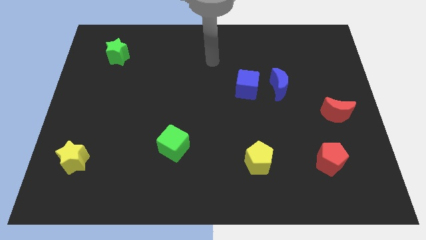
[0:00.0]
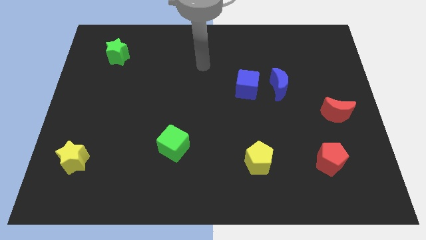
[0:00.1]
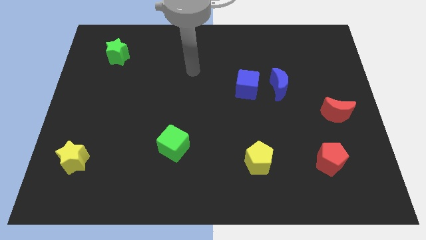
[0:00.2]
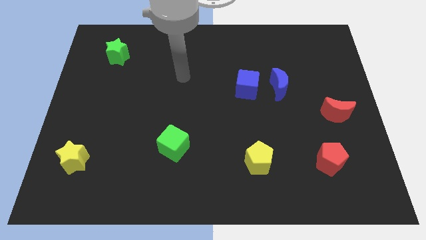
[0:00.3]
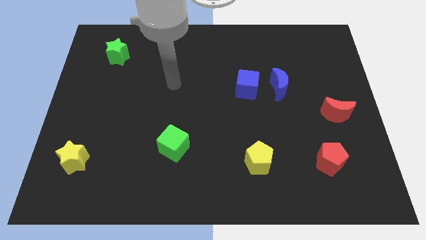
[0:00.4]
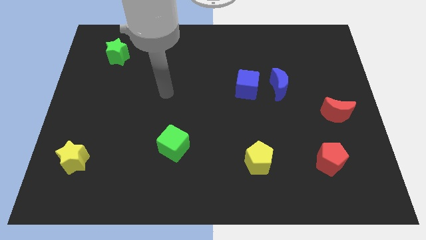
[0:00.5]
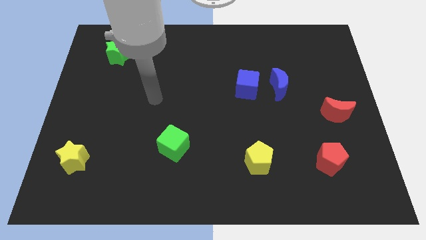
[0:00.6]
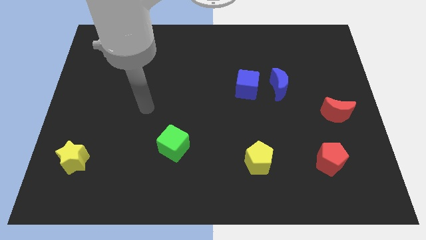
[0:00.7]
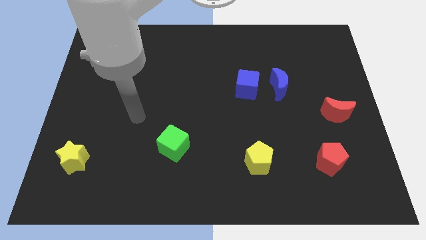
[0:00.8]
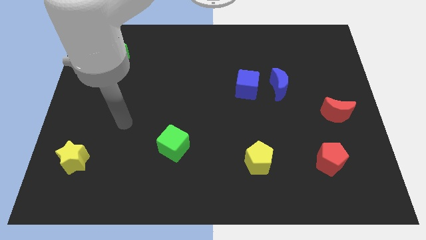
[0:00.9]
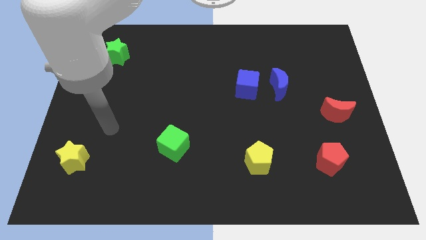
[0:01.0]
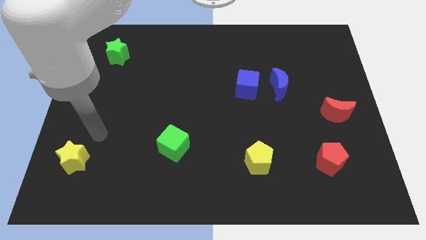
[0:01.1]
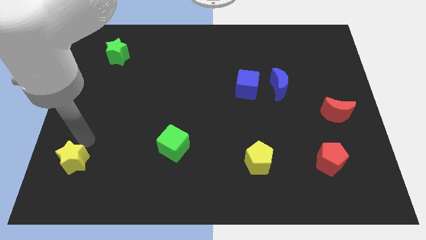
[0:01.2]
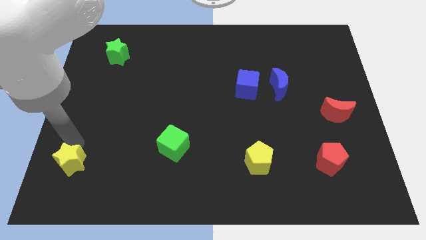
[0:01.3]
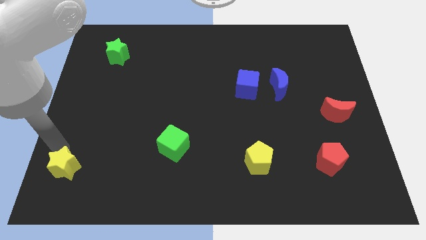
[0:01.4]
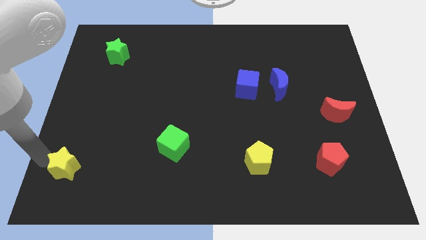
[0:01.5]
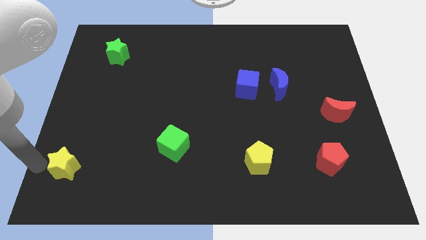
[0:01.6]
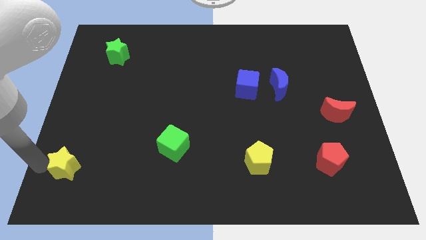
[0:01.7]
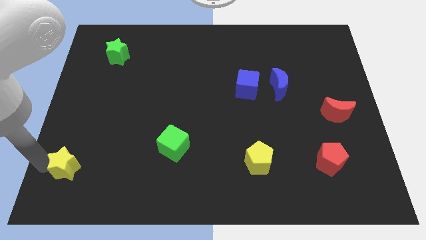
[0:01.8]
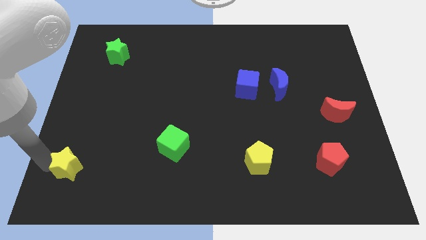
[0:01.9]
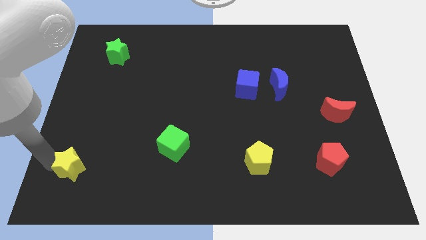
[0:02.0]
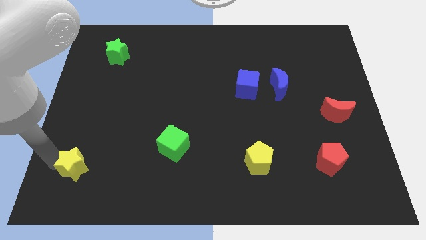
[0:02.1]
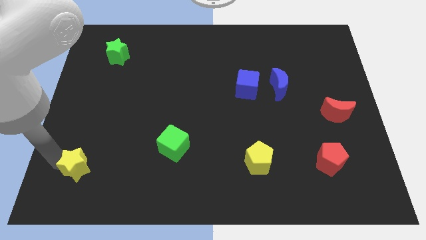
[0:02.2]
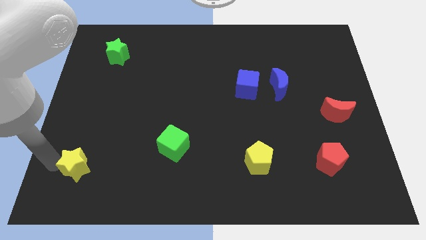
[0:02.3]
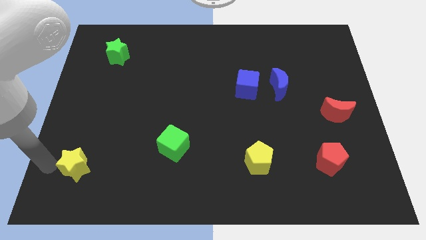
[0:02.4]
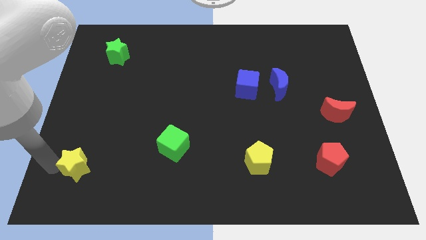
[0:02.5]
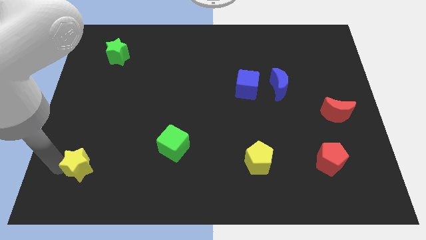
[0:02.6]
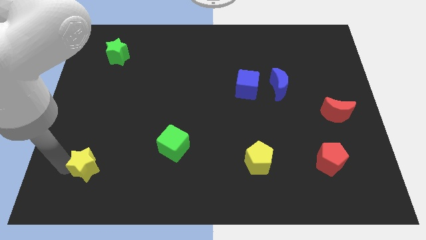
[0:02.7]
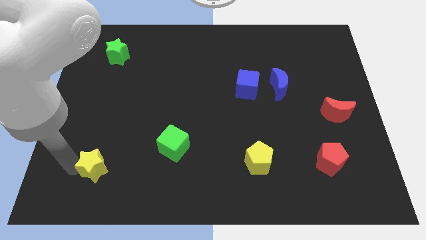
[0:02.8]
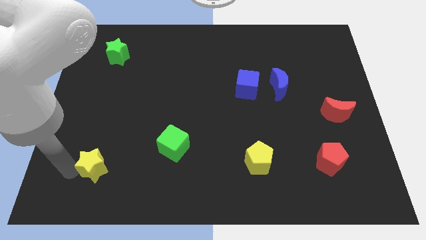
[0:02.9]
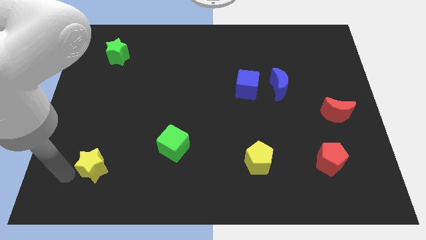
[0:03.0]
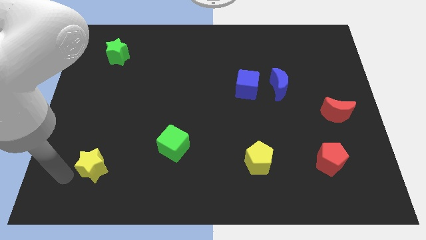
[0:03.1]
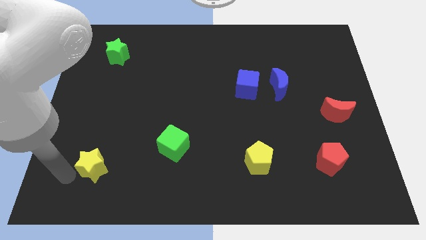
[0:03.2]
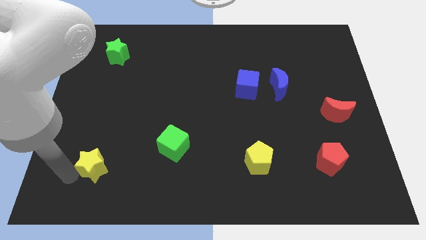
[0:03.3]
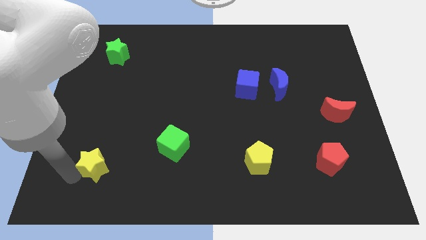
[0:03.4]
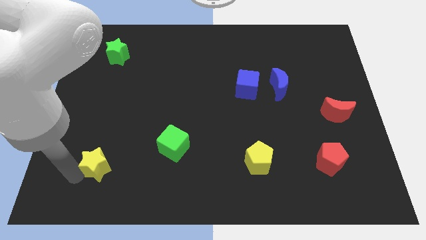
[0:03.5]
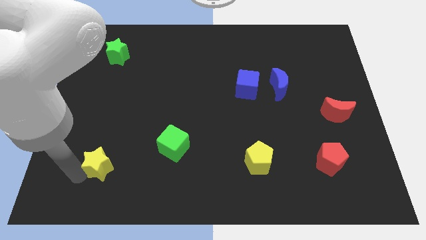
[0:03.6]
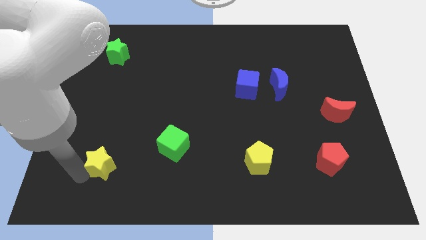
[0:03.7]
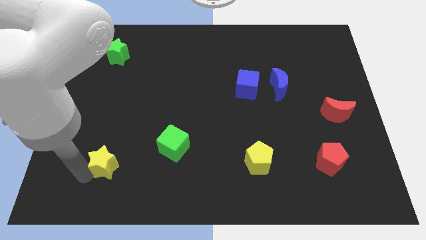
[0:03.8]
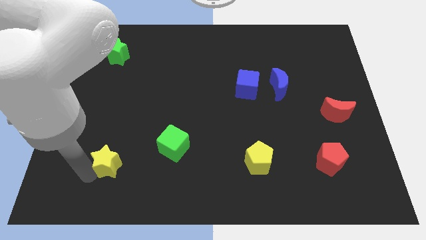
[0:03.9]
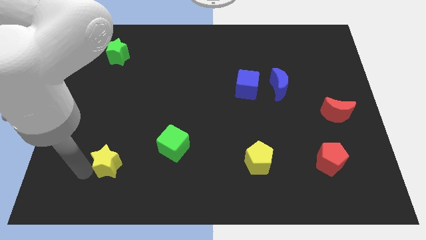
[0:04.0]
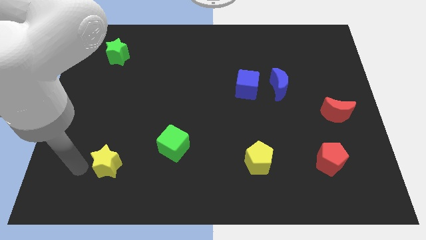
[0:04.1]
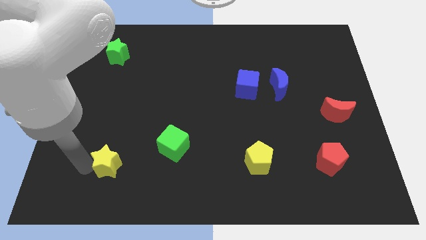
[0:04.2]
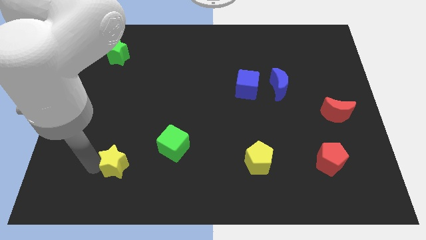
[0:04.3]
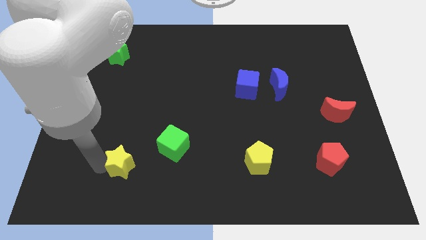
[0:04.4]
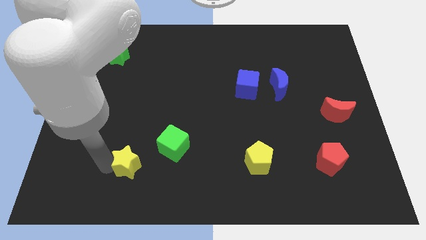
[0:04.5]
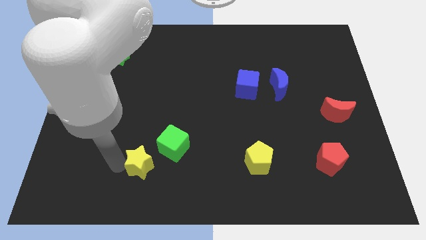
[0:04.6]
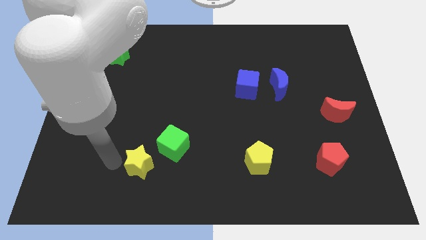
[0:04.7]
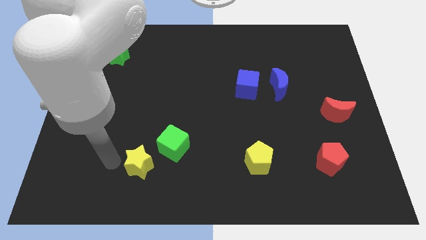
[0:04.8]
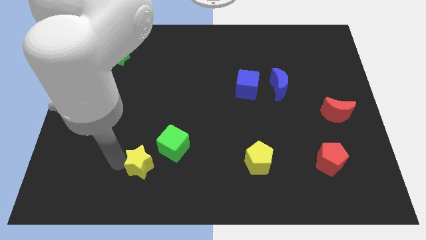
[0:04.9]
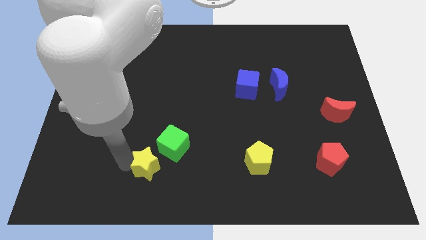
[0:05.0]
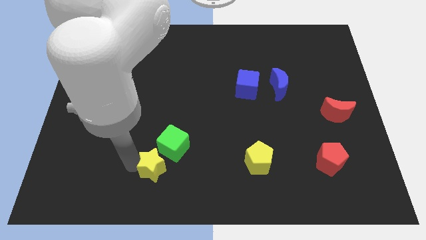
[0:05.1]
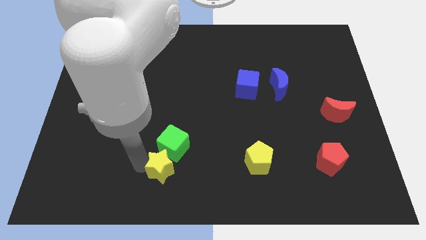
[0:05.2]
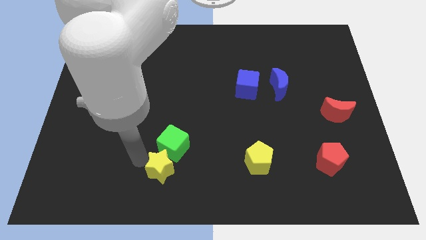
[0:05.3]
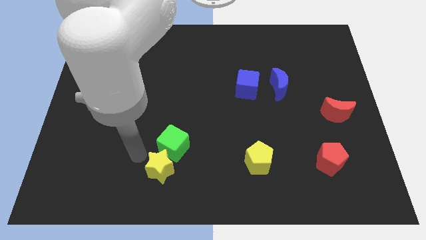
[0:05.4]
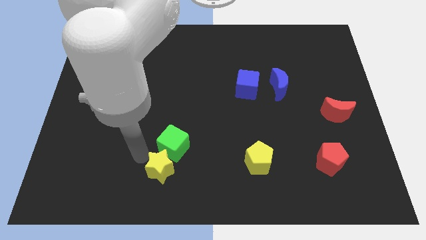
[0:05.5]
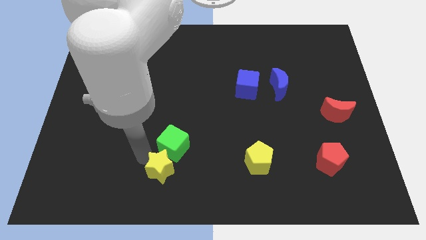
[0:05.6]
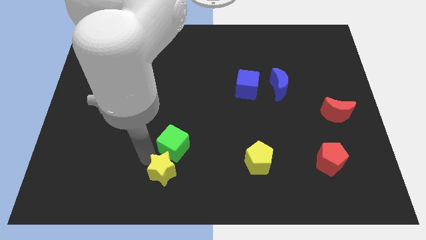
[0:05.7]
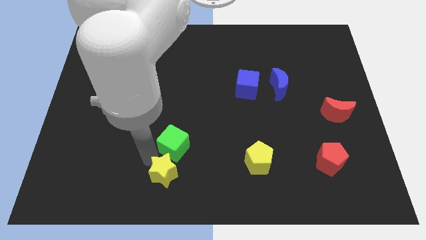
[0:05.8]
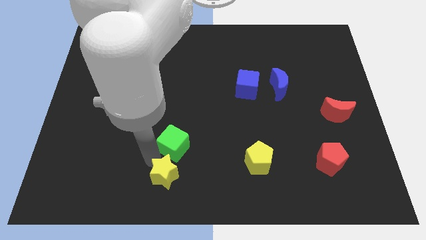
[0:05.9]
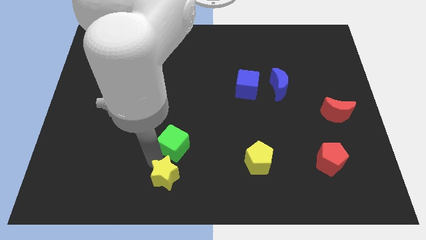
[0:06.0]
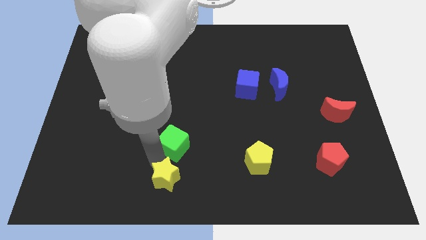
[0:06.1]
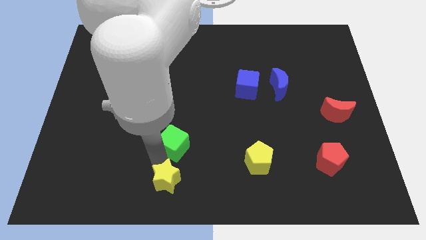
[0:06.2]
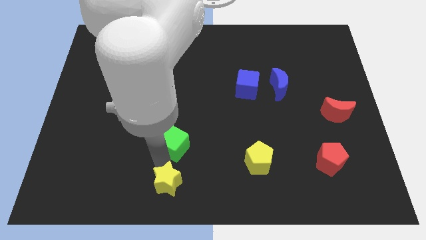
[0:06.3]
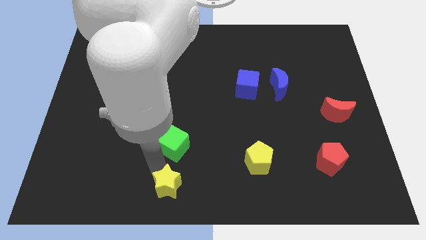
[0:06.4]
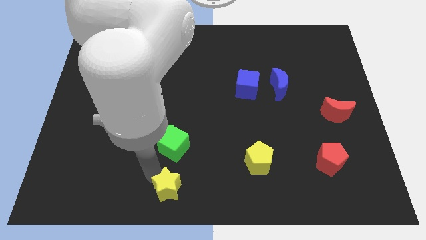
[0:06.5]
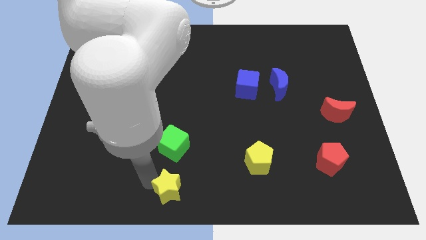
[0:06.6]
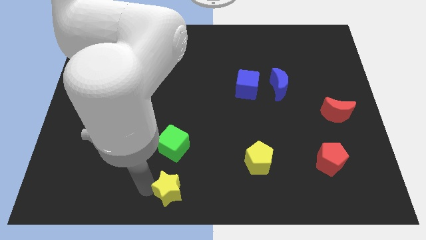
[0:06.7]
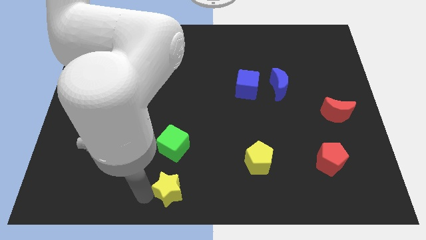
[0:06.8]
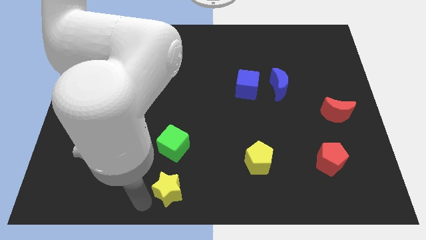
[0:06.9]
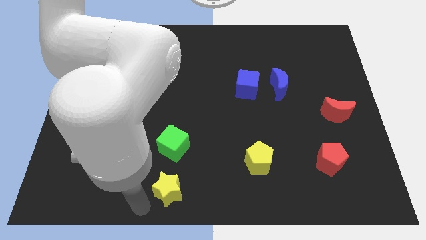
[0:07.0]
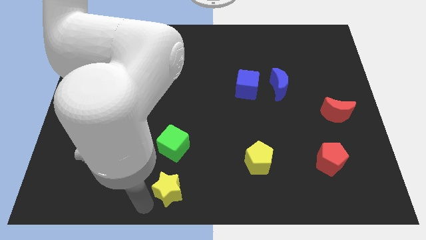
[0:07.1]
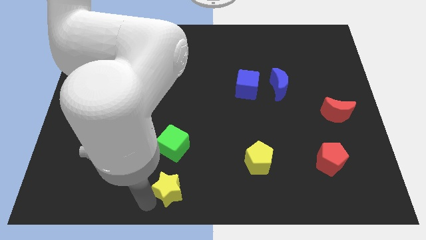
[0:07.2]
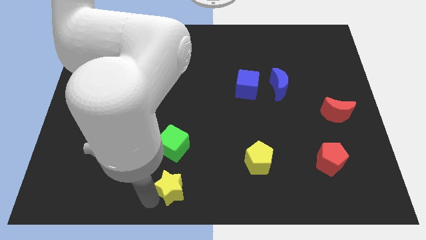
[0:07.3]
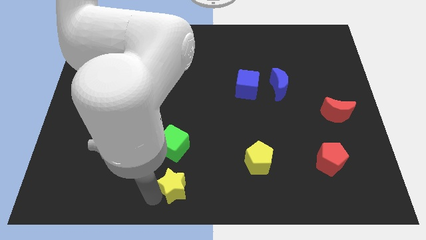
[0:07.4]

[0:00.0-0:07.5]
slide the yellow star right

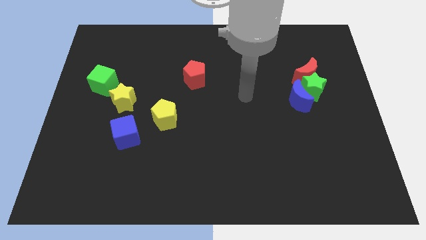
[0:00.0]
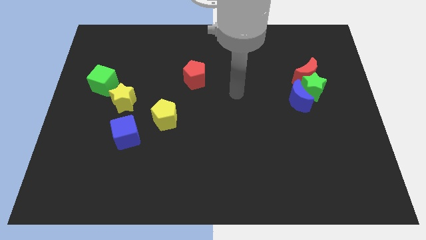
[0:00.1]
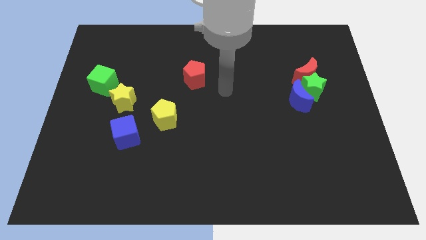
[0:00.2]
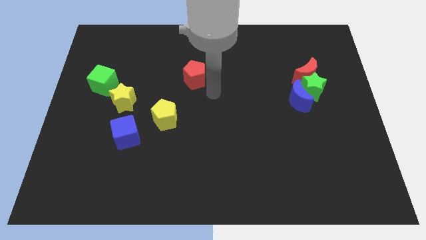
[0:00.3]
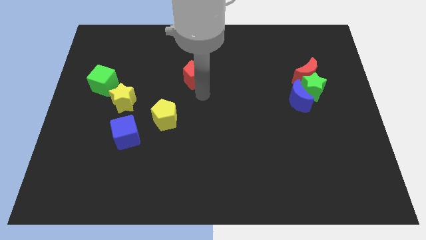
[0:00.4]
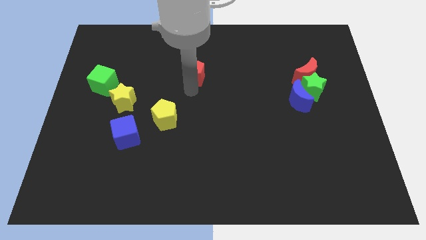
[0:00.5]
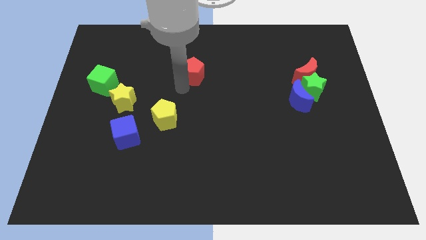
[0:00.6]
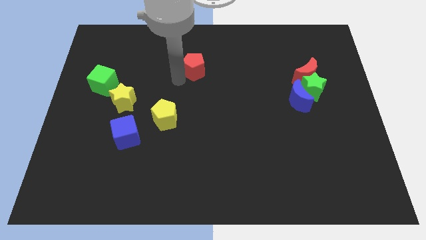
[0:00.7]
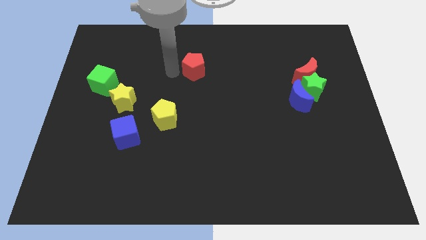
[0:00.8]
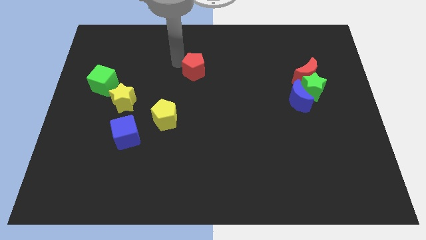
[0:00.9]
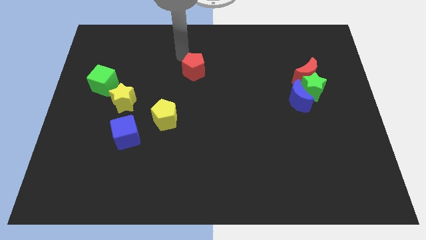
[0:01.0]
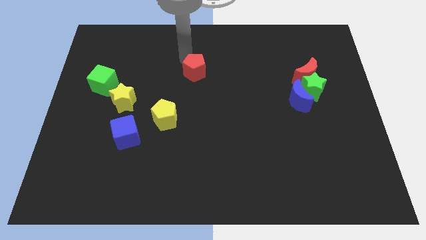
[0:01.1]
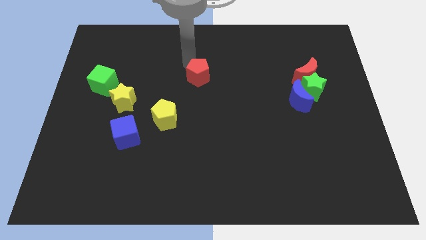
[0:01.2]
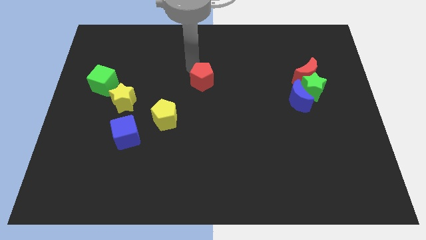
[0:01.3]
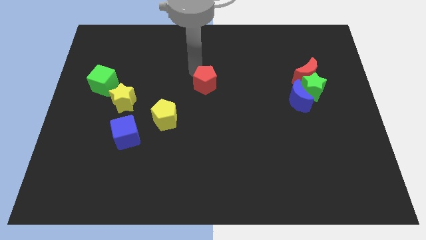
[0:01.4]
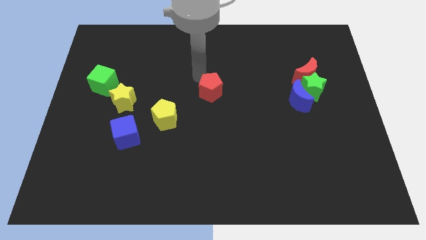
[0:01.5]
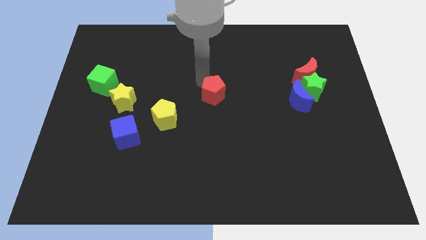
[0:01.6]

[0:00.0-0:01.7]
move the red pentagon downwards and right diagonally a little
